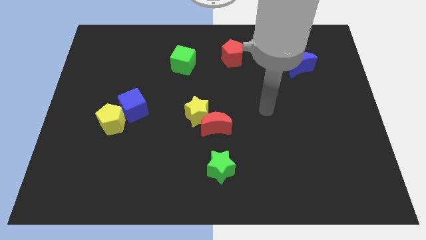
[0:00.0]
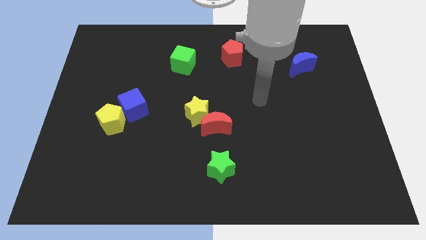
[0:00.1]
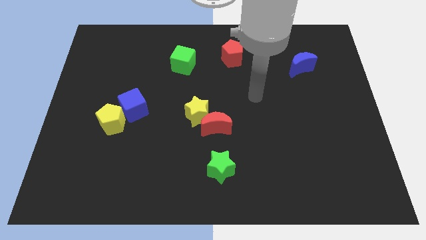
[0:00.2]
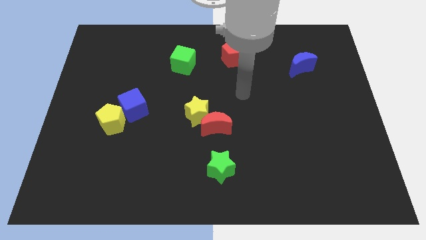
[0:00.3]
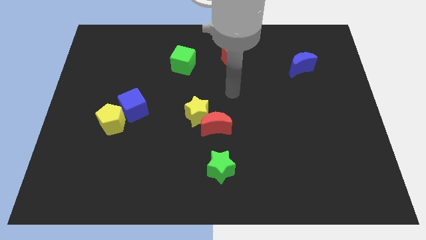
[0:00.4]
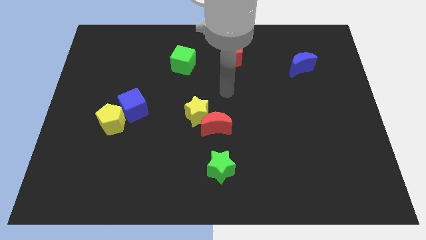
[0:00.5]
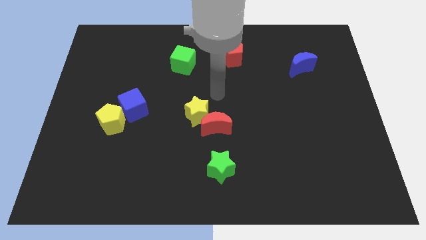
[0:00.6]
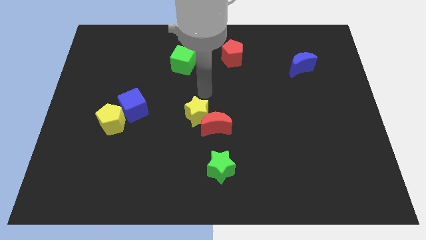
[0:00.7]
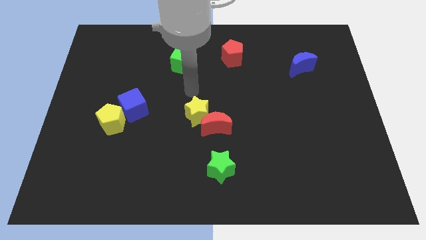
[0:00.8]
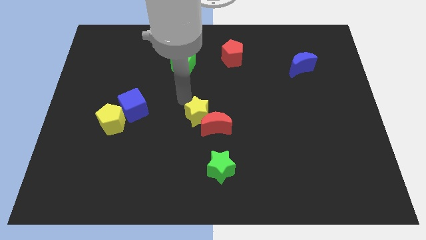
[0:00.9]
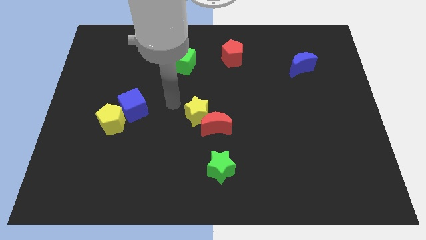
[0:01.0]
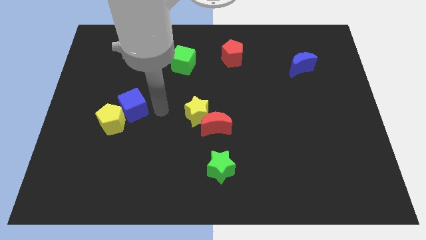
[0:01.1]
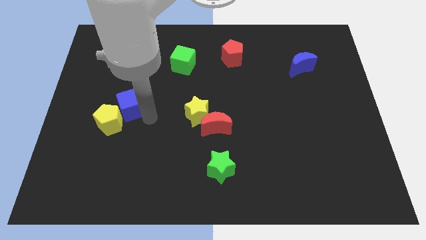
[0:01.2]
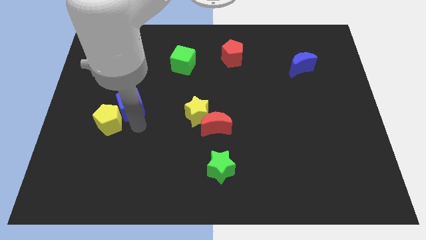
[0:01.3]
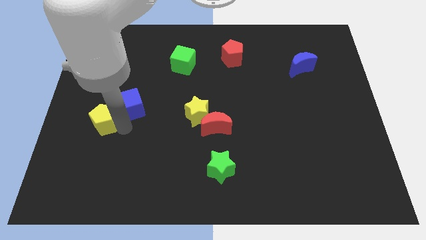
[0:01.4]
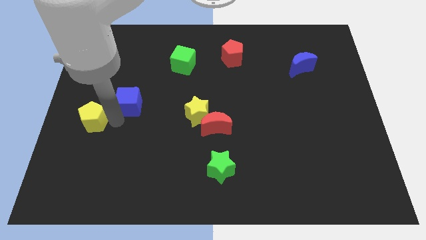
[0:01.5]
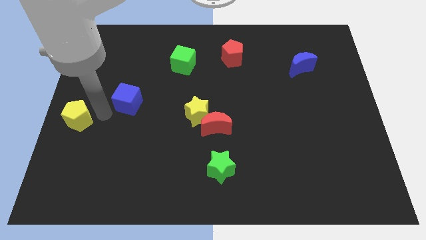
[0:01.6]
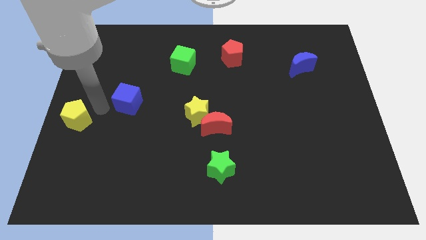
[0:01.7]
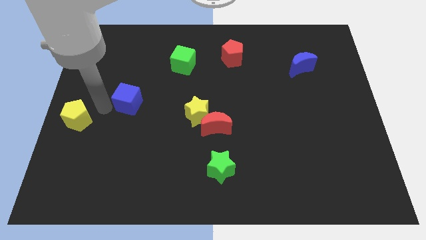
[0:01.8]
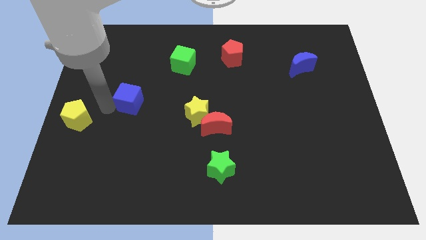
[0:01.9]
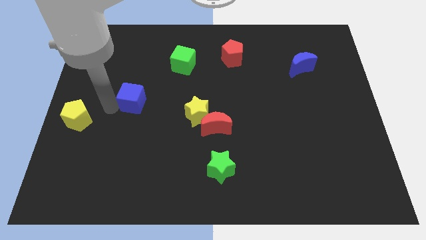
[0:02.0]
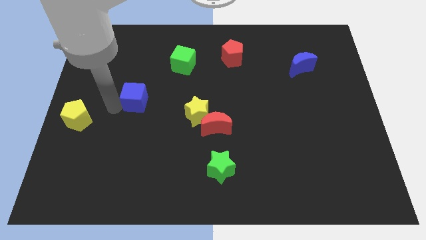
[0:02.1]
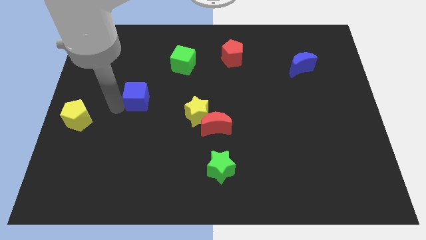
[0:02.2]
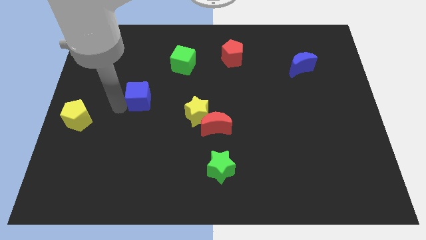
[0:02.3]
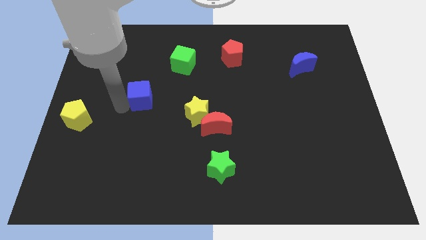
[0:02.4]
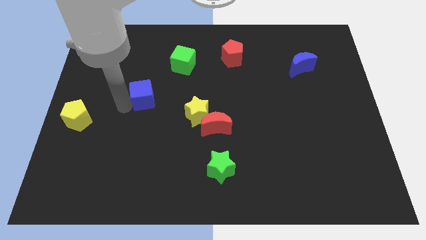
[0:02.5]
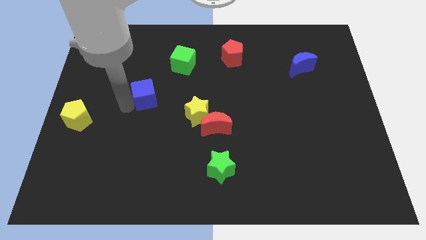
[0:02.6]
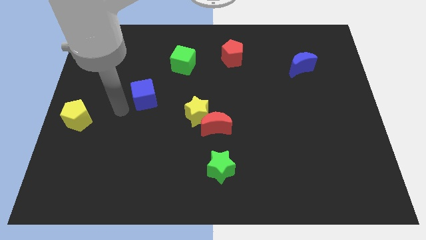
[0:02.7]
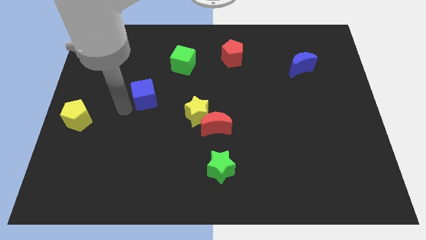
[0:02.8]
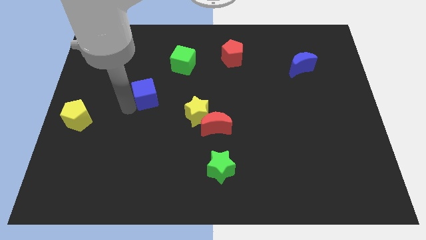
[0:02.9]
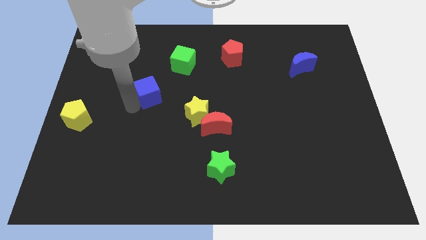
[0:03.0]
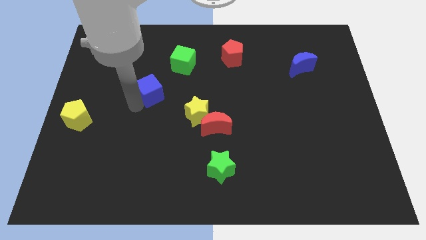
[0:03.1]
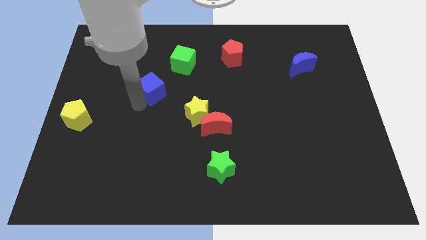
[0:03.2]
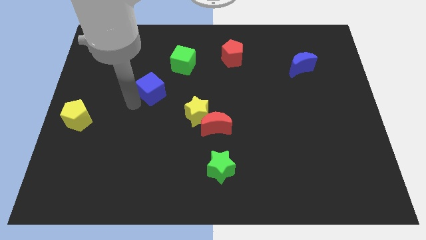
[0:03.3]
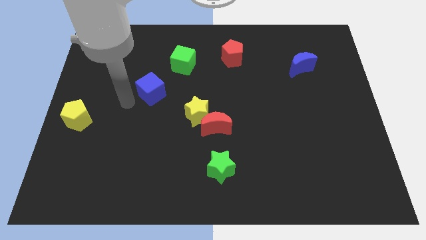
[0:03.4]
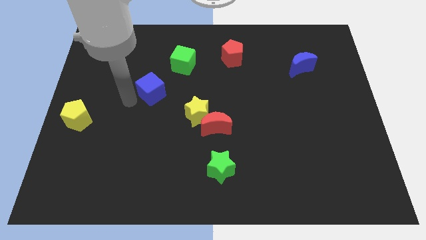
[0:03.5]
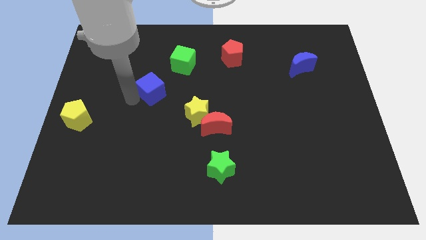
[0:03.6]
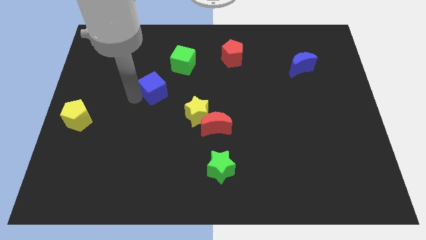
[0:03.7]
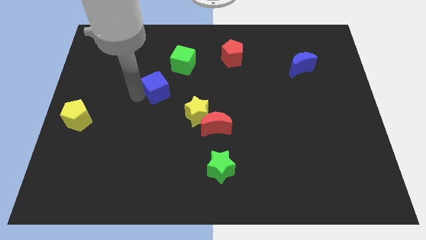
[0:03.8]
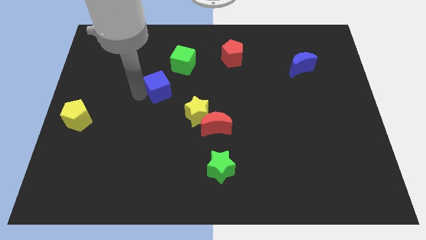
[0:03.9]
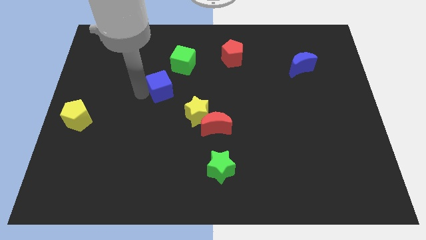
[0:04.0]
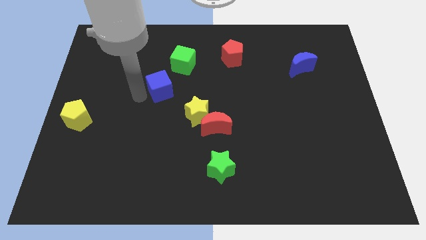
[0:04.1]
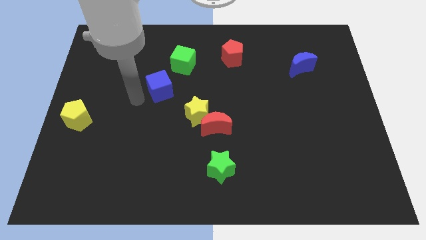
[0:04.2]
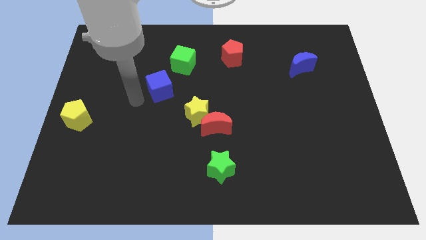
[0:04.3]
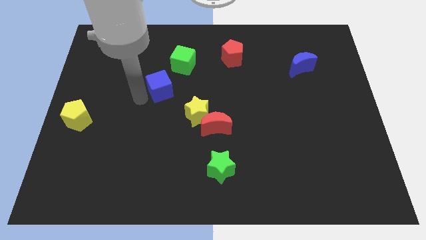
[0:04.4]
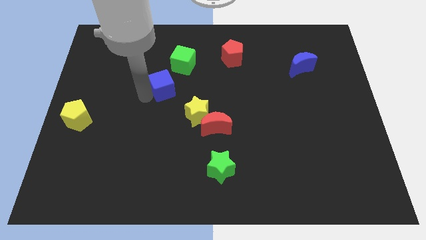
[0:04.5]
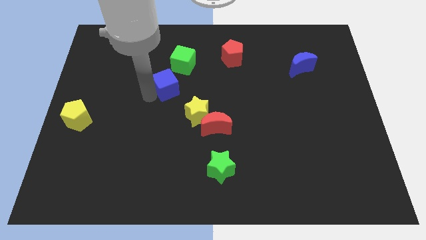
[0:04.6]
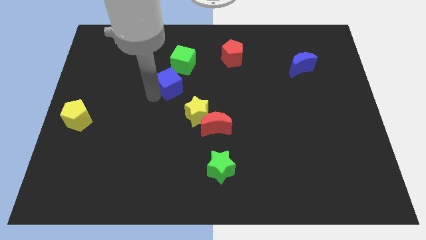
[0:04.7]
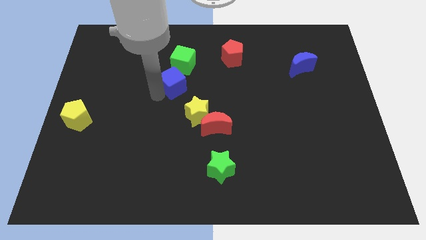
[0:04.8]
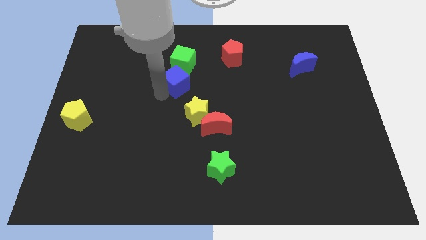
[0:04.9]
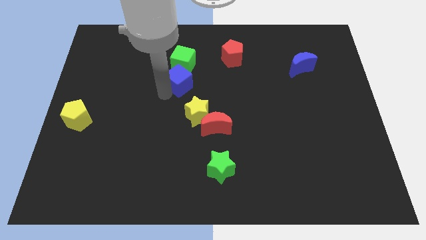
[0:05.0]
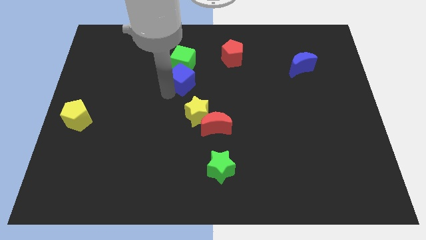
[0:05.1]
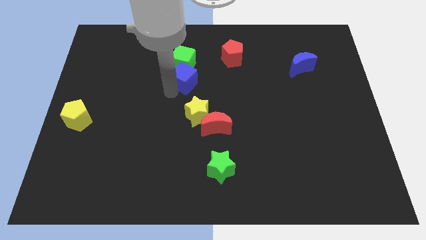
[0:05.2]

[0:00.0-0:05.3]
move the blue cube close to the green cube

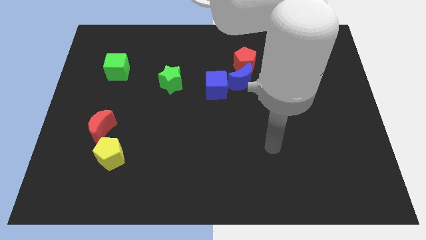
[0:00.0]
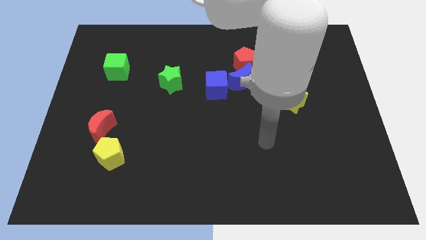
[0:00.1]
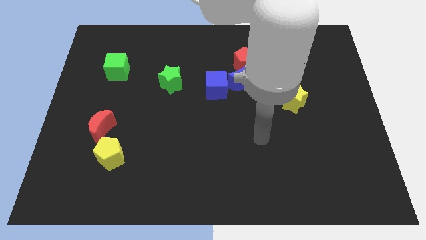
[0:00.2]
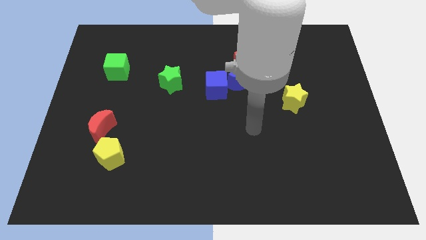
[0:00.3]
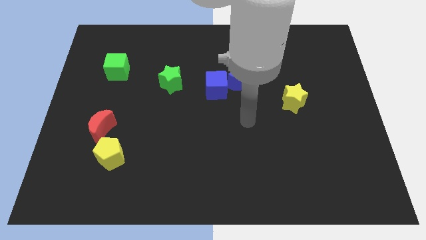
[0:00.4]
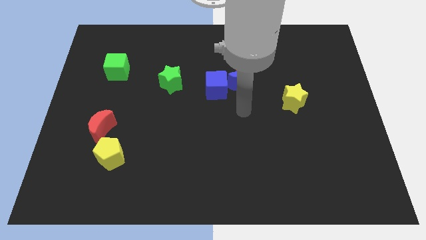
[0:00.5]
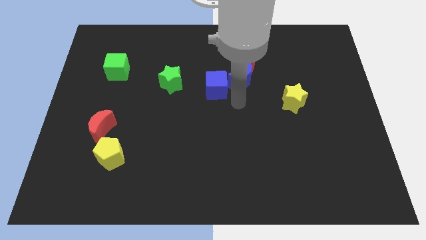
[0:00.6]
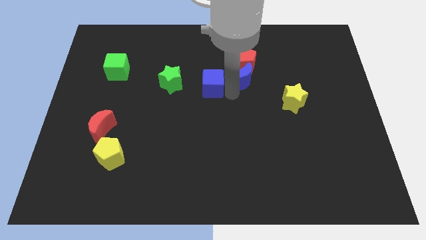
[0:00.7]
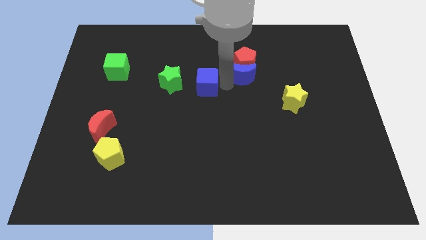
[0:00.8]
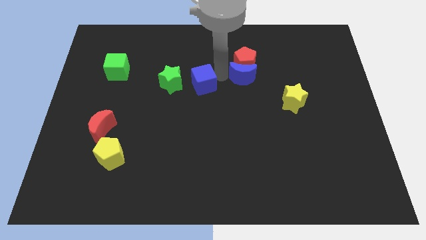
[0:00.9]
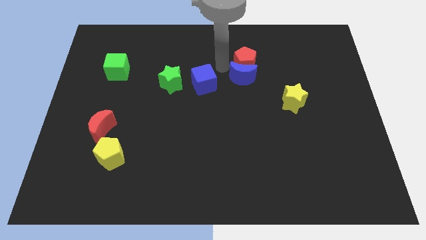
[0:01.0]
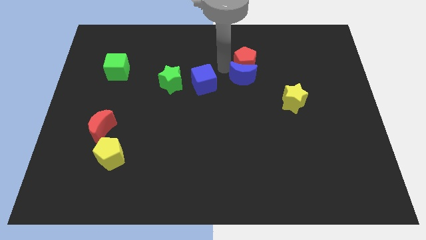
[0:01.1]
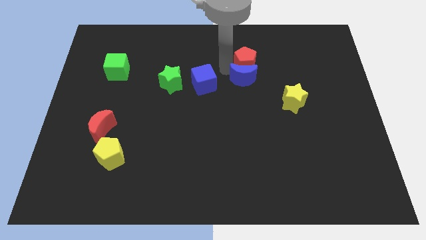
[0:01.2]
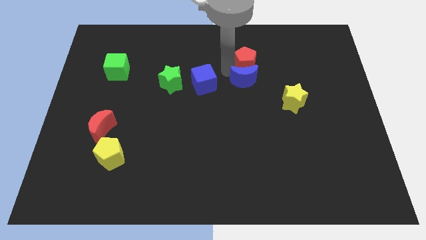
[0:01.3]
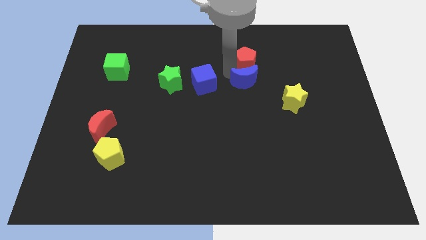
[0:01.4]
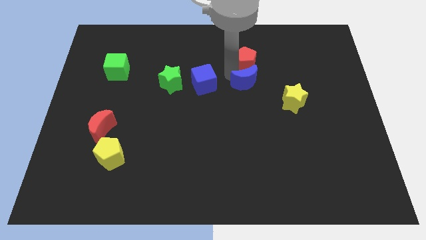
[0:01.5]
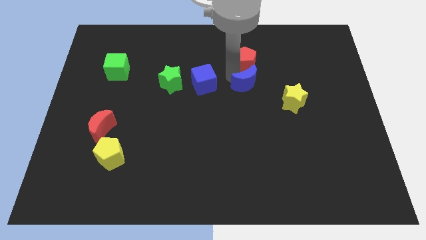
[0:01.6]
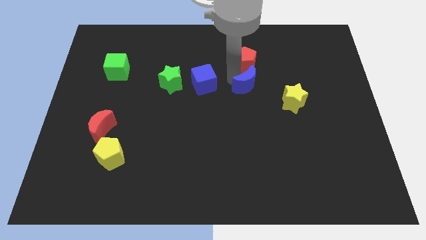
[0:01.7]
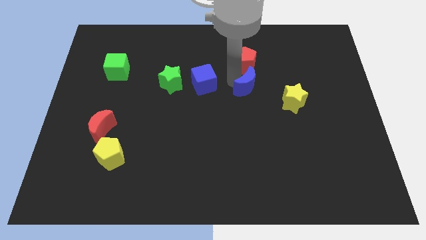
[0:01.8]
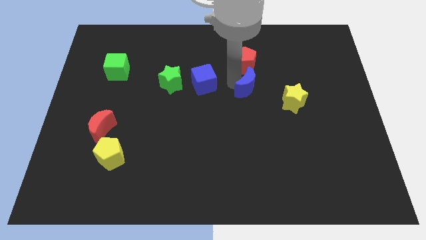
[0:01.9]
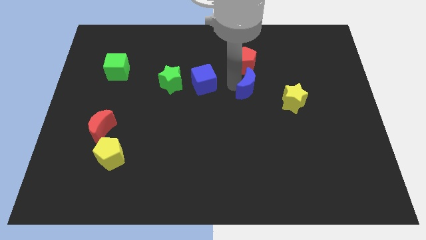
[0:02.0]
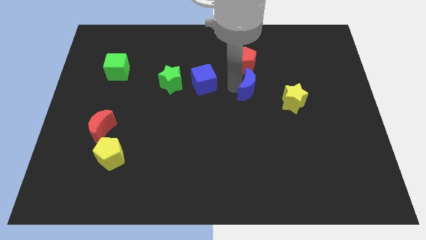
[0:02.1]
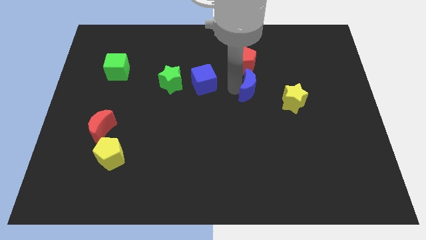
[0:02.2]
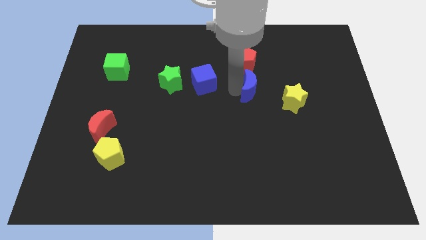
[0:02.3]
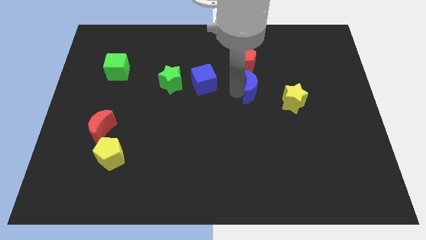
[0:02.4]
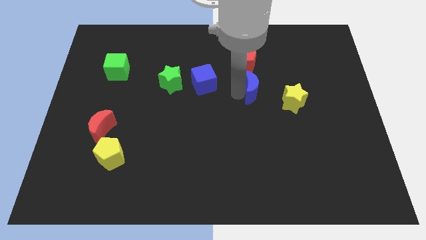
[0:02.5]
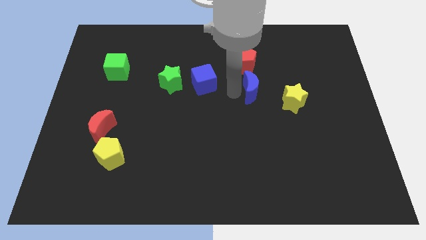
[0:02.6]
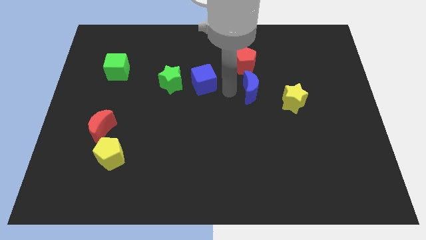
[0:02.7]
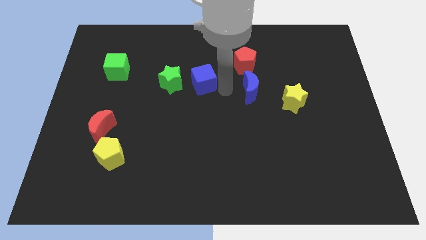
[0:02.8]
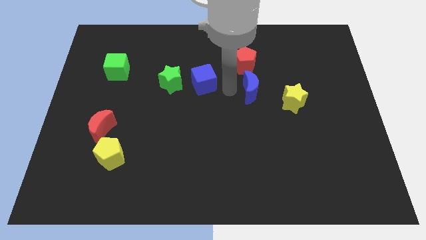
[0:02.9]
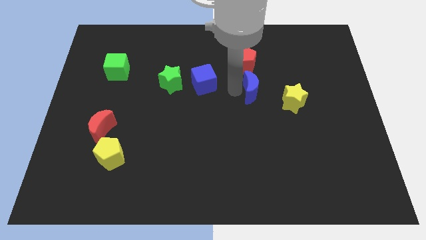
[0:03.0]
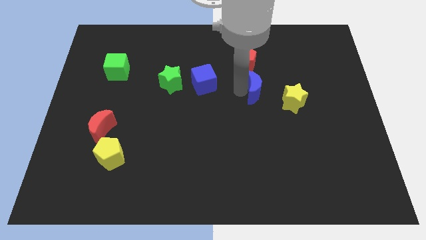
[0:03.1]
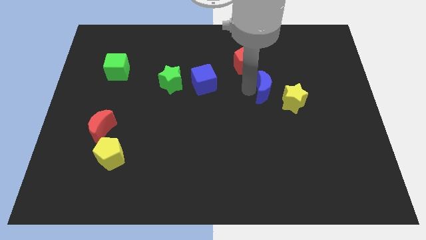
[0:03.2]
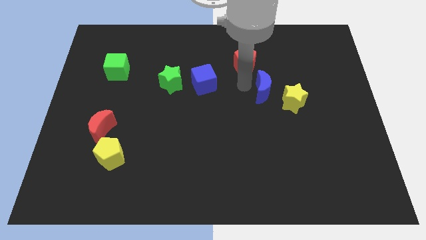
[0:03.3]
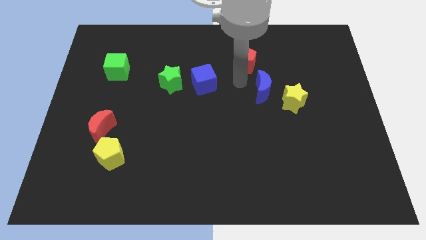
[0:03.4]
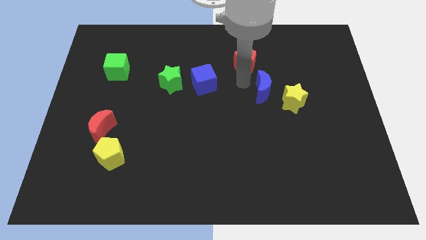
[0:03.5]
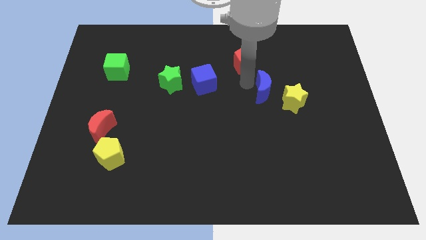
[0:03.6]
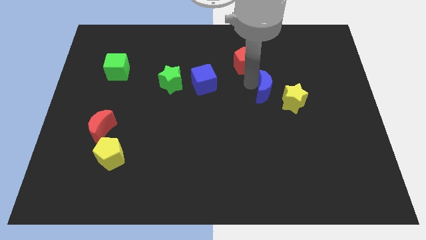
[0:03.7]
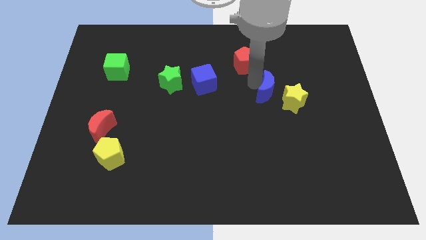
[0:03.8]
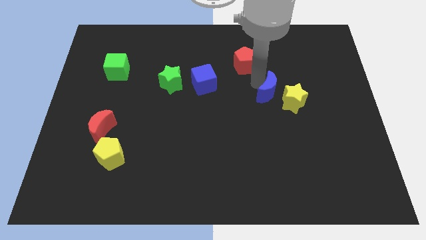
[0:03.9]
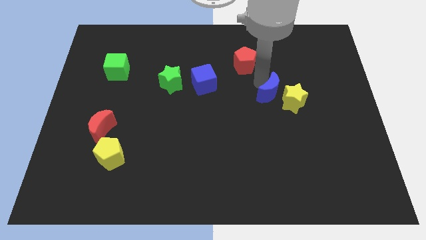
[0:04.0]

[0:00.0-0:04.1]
slide the blue moon towards the yellow star
